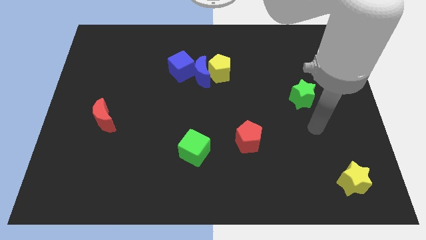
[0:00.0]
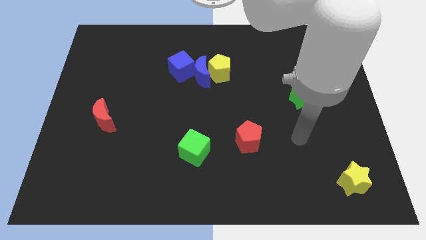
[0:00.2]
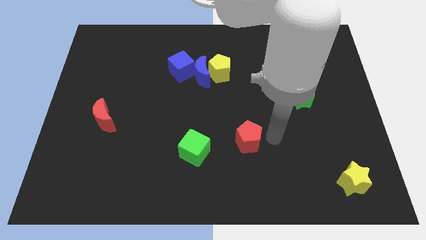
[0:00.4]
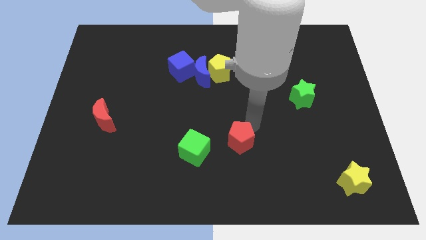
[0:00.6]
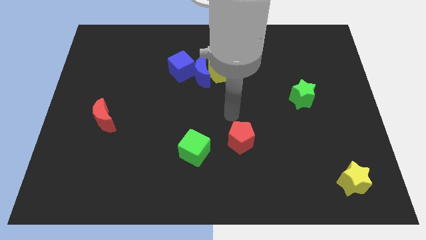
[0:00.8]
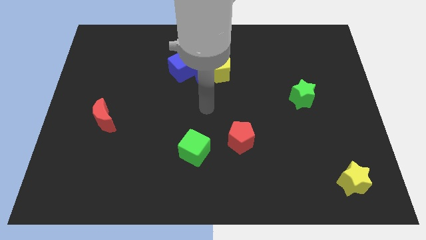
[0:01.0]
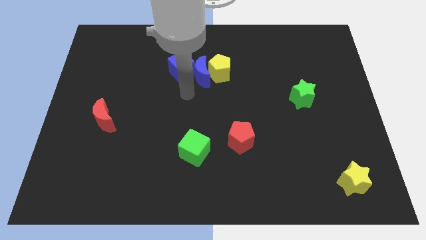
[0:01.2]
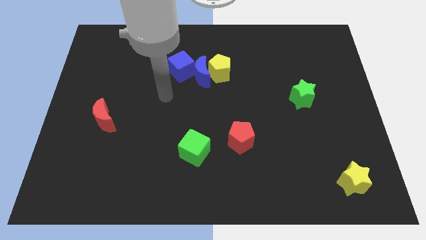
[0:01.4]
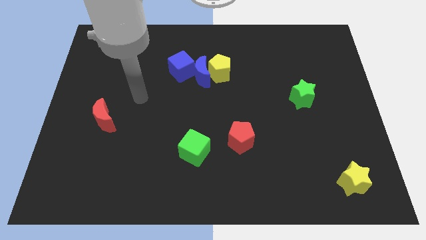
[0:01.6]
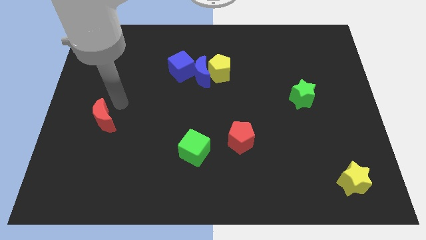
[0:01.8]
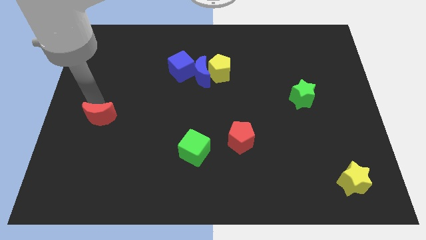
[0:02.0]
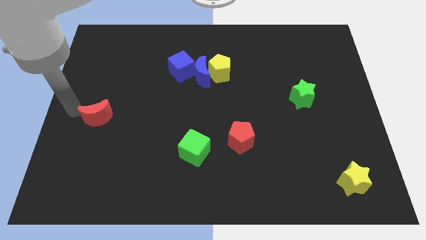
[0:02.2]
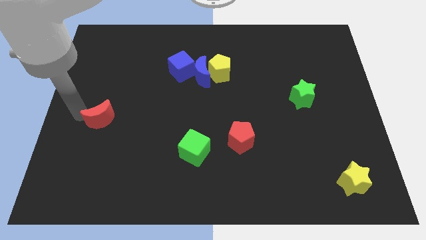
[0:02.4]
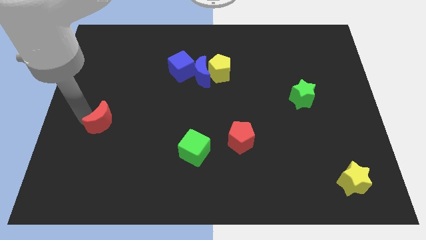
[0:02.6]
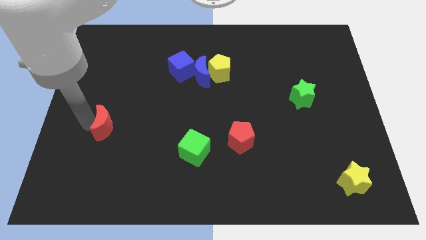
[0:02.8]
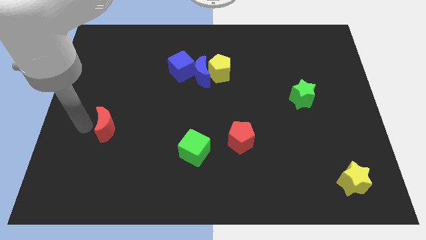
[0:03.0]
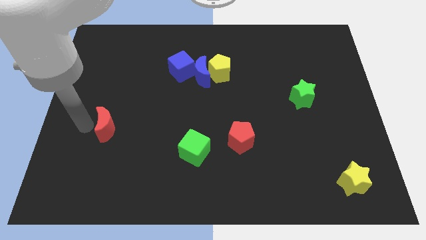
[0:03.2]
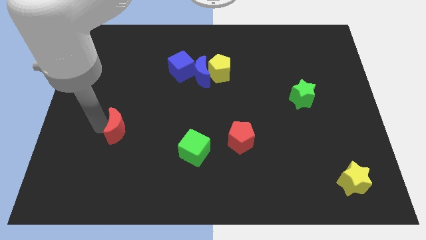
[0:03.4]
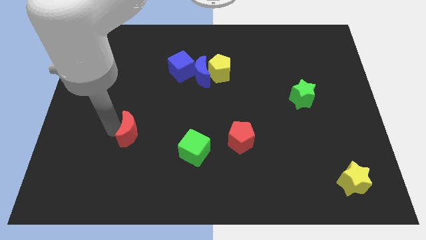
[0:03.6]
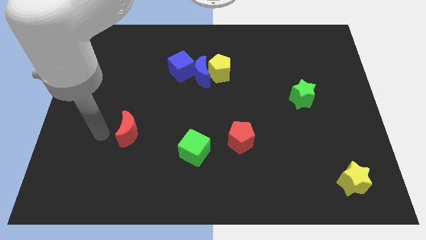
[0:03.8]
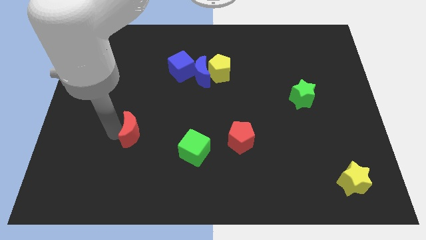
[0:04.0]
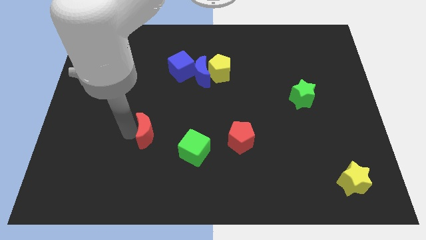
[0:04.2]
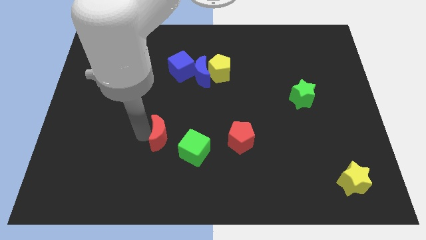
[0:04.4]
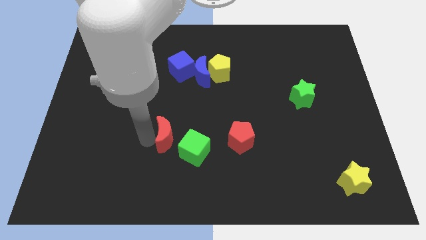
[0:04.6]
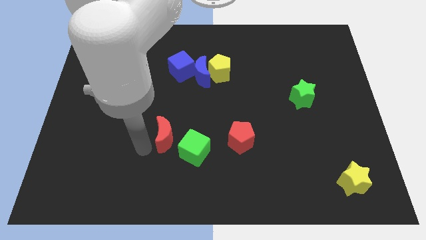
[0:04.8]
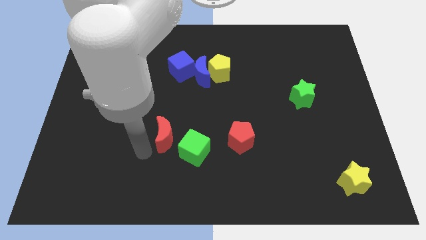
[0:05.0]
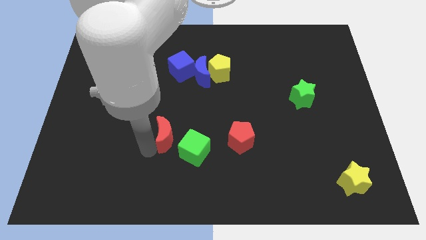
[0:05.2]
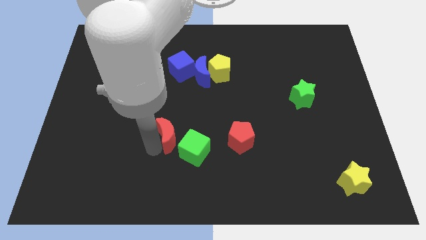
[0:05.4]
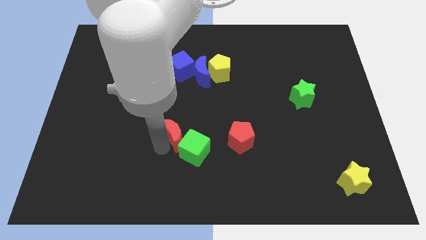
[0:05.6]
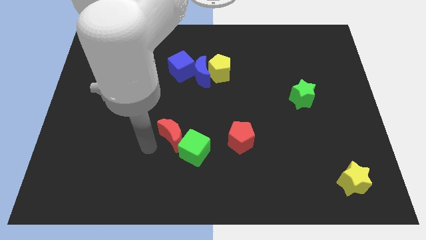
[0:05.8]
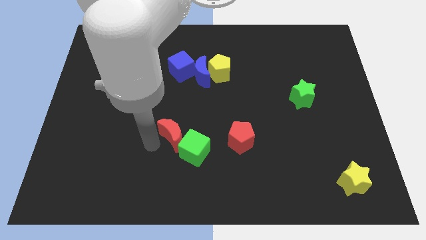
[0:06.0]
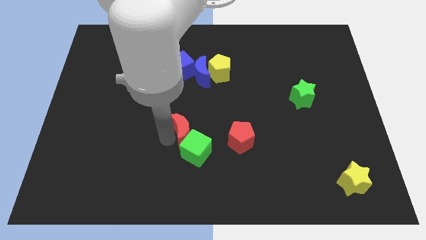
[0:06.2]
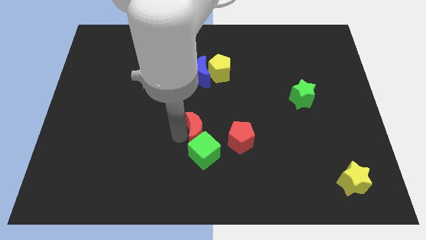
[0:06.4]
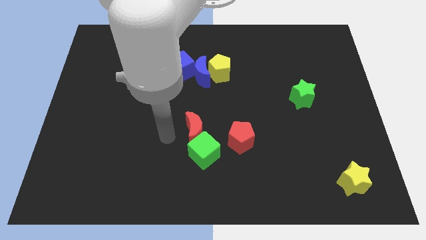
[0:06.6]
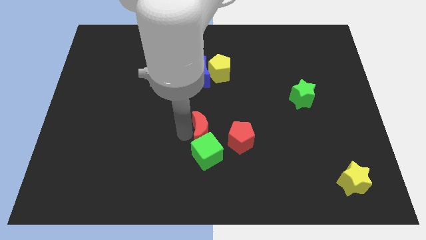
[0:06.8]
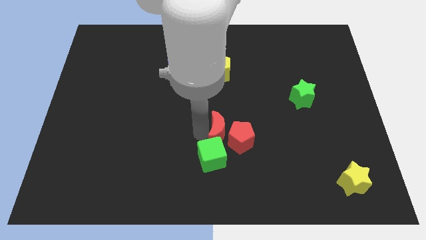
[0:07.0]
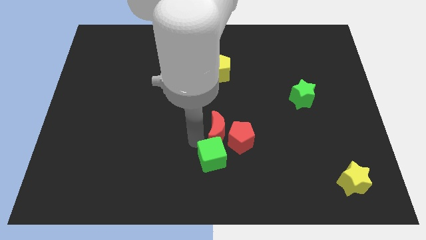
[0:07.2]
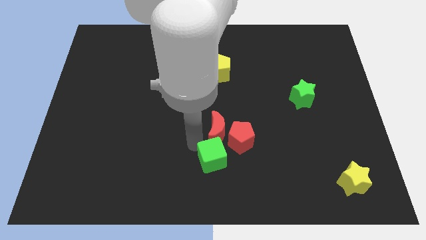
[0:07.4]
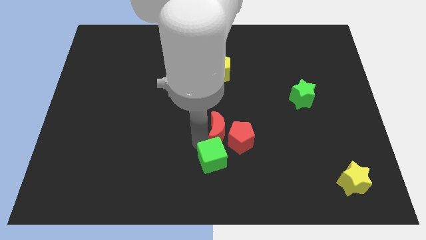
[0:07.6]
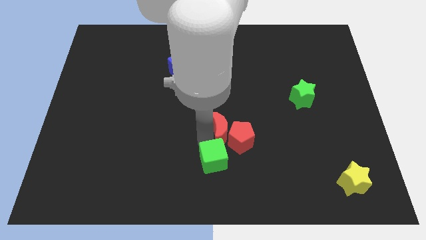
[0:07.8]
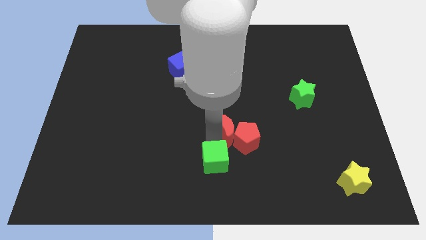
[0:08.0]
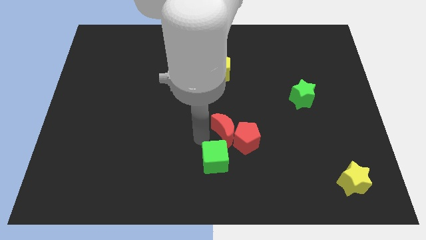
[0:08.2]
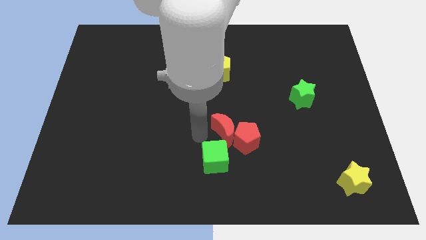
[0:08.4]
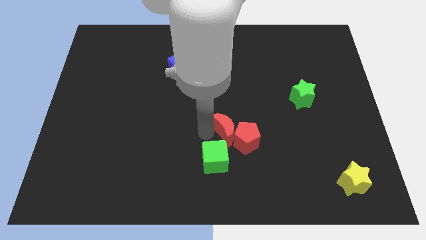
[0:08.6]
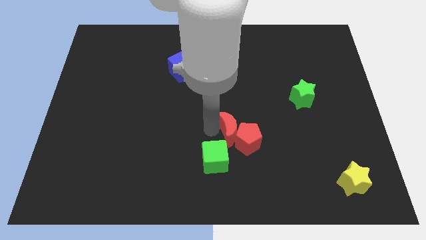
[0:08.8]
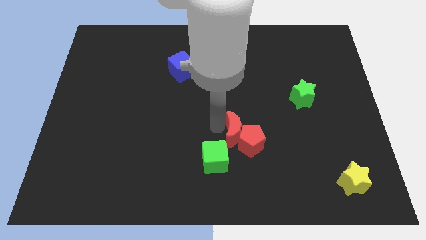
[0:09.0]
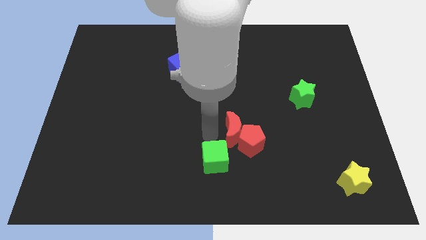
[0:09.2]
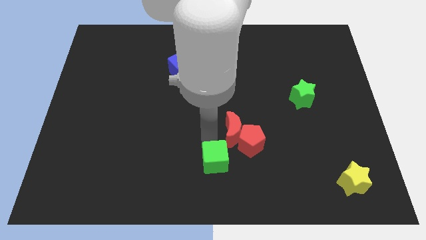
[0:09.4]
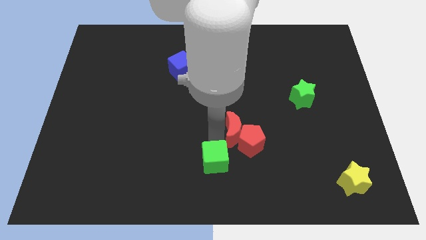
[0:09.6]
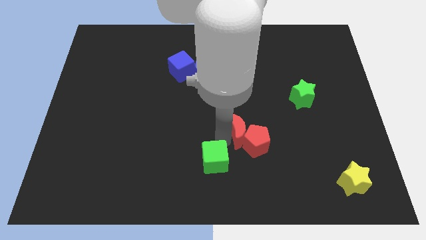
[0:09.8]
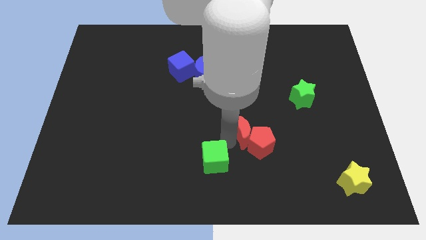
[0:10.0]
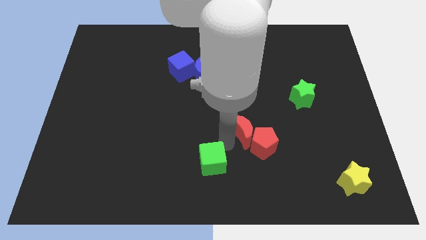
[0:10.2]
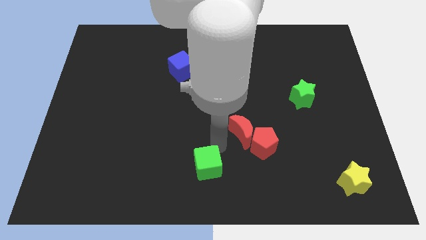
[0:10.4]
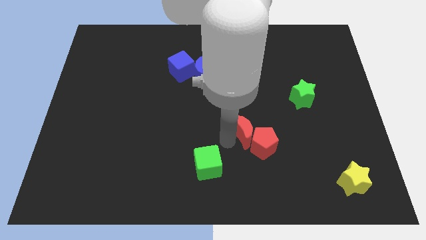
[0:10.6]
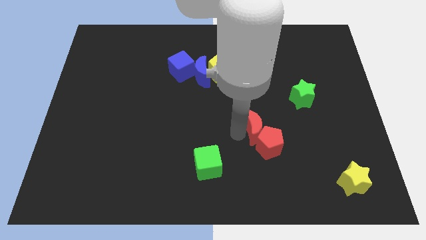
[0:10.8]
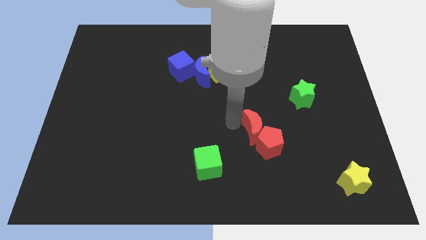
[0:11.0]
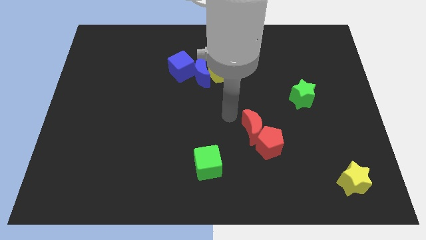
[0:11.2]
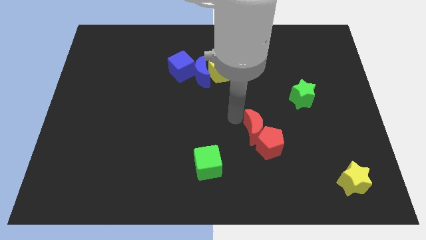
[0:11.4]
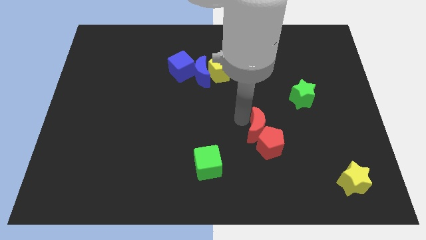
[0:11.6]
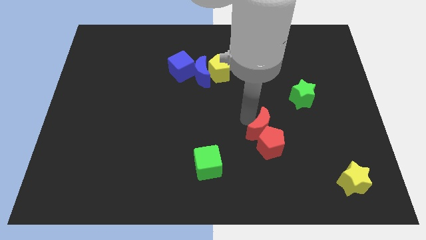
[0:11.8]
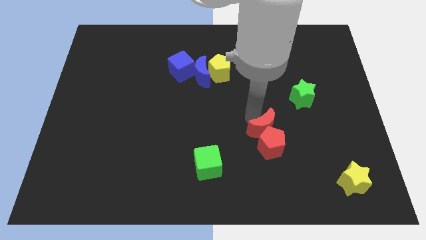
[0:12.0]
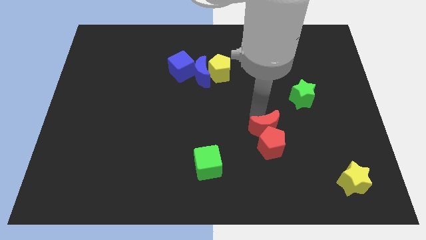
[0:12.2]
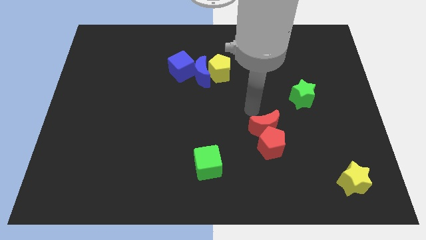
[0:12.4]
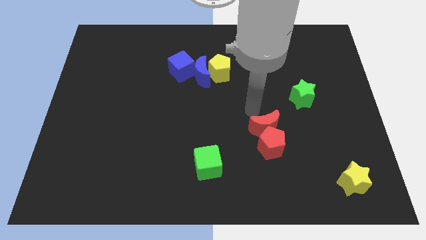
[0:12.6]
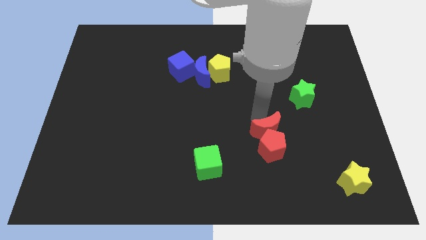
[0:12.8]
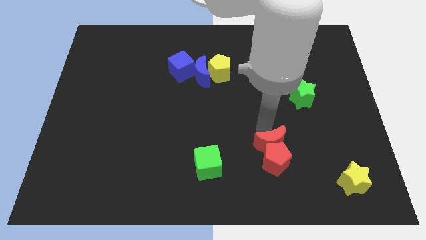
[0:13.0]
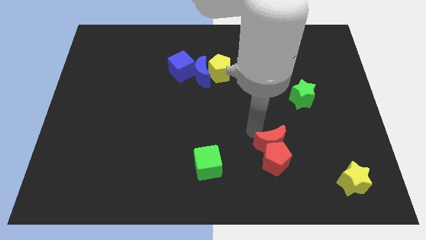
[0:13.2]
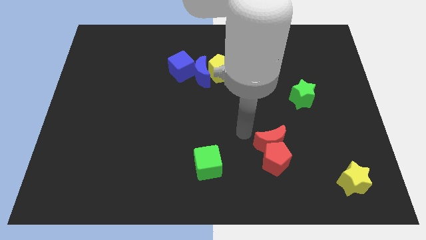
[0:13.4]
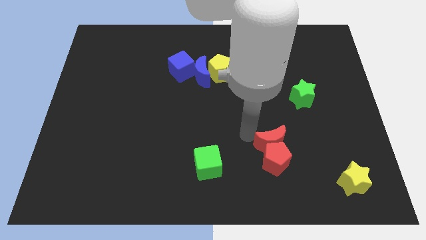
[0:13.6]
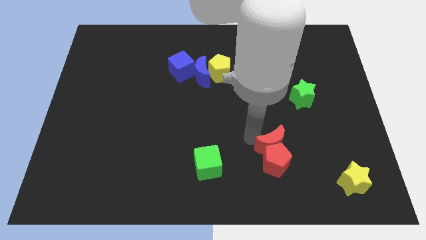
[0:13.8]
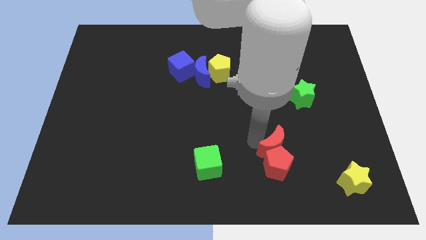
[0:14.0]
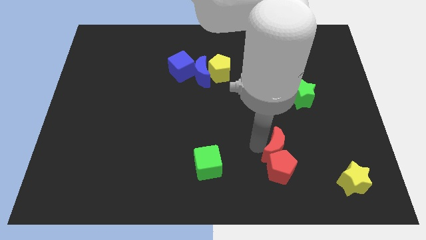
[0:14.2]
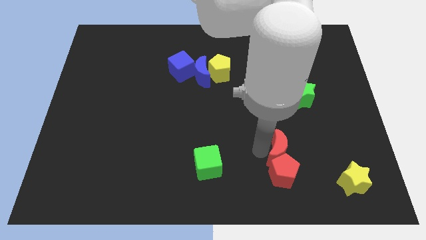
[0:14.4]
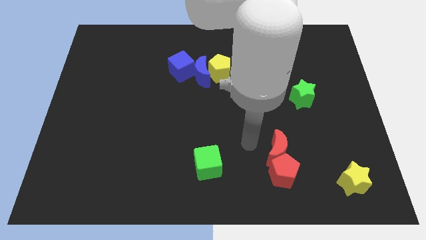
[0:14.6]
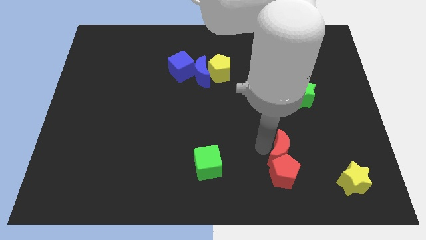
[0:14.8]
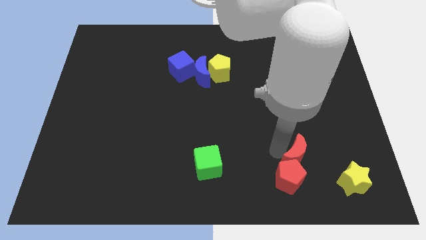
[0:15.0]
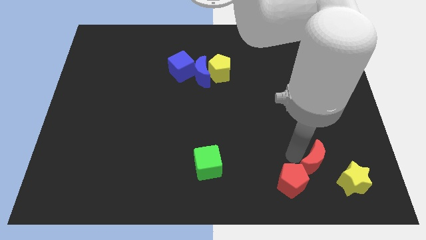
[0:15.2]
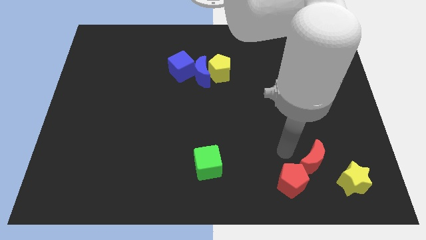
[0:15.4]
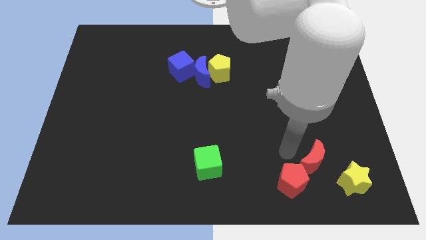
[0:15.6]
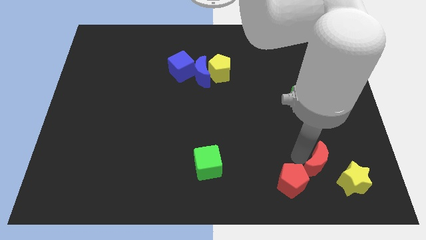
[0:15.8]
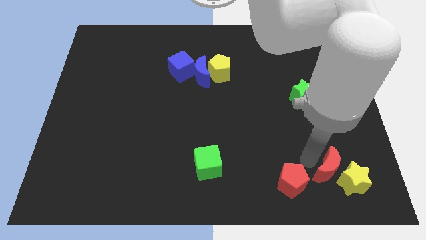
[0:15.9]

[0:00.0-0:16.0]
slide the red moon next to the yellow star

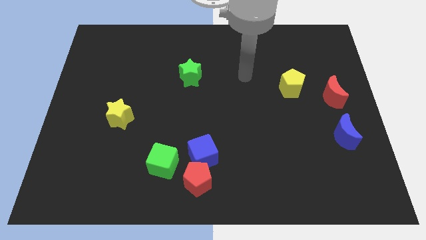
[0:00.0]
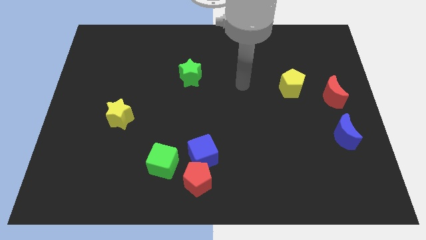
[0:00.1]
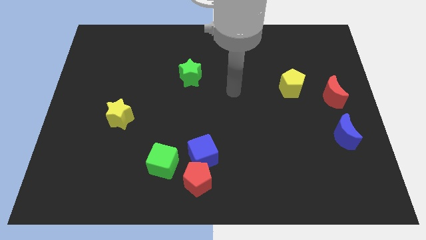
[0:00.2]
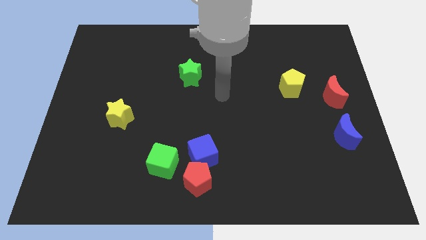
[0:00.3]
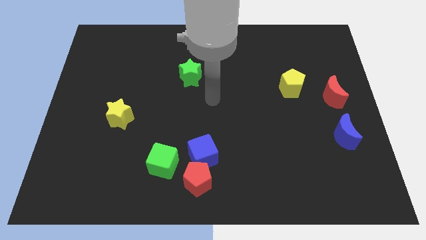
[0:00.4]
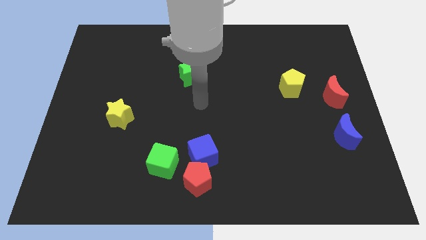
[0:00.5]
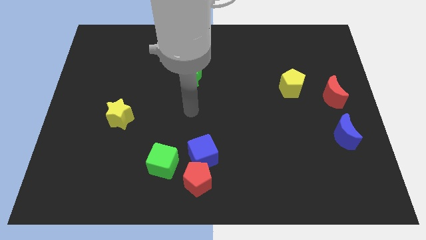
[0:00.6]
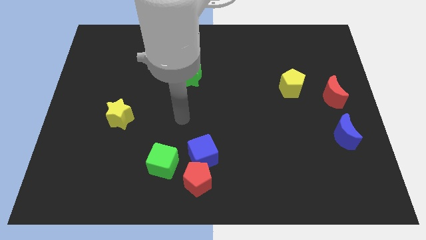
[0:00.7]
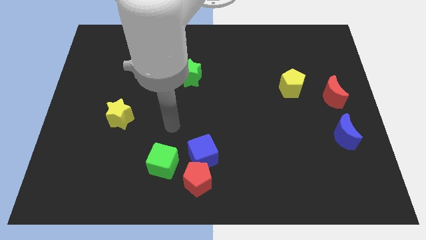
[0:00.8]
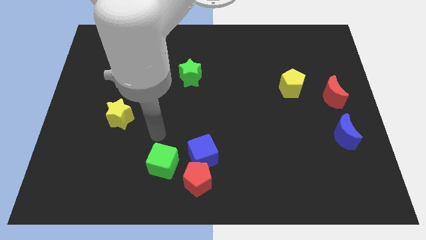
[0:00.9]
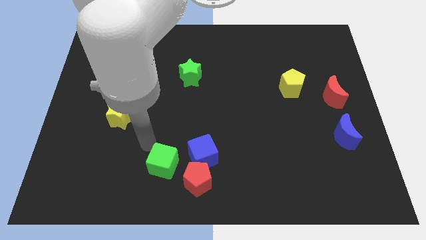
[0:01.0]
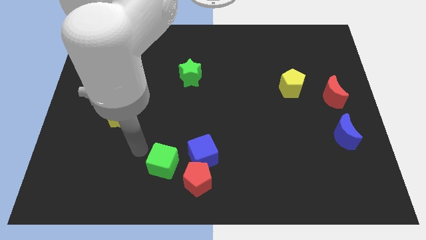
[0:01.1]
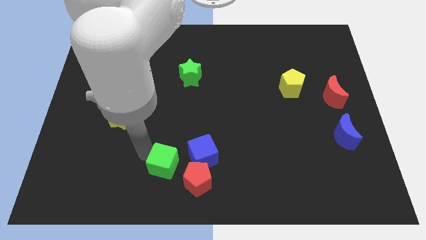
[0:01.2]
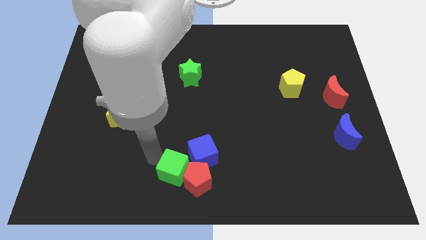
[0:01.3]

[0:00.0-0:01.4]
put the green cube to the red pentagon
